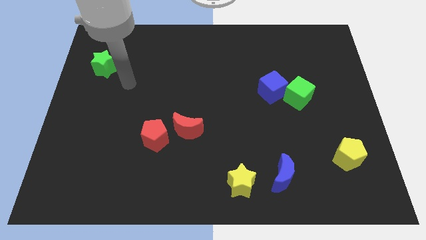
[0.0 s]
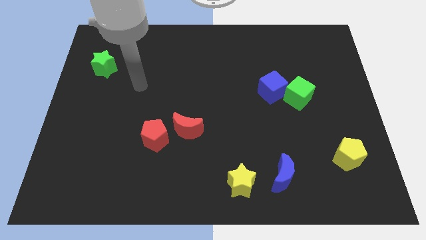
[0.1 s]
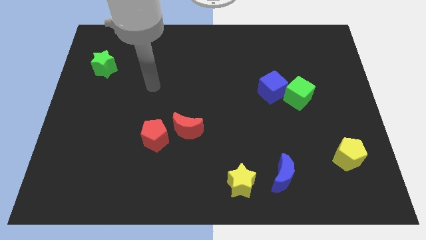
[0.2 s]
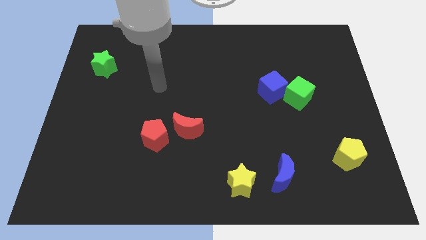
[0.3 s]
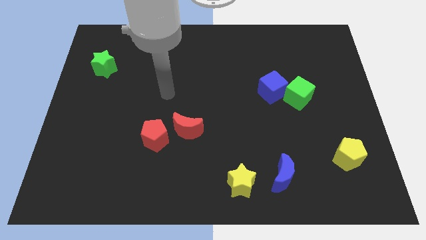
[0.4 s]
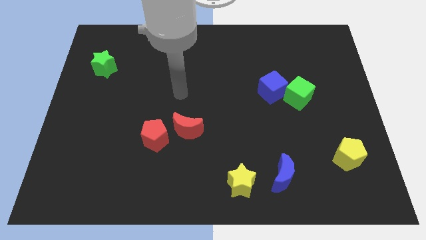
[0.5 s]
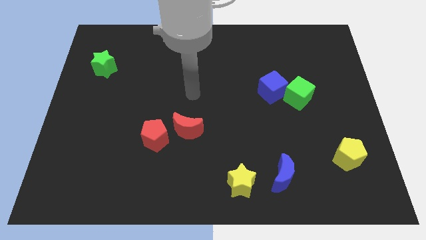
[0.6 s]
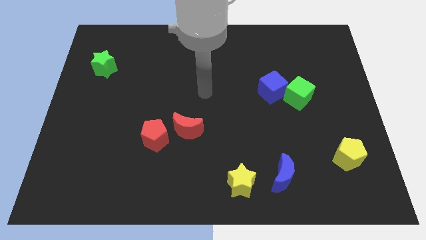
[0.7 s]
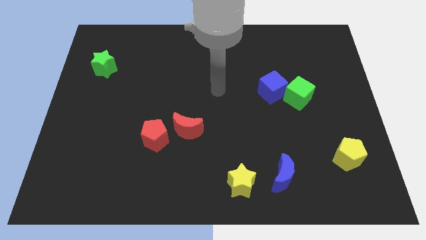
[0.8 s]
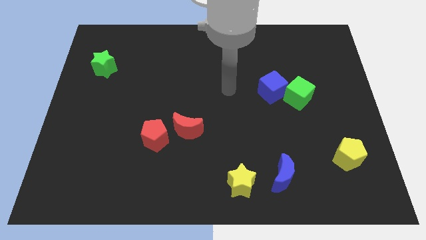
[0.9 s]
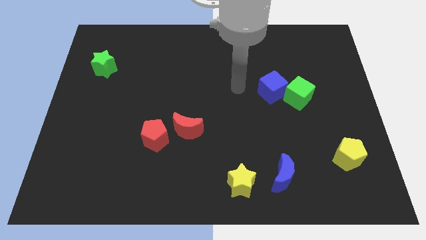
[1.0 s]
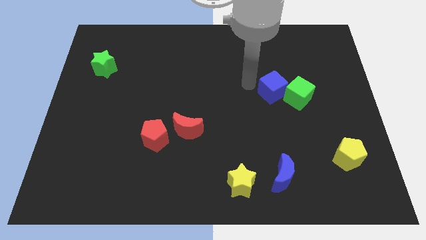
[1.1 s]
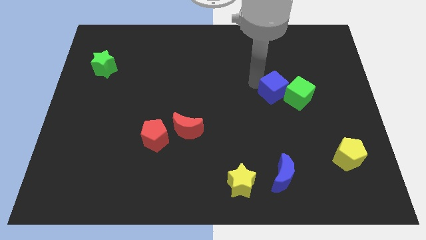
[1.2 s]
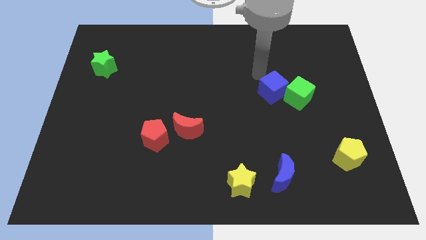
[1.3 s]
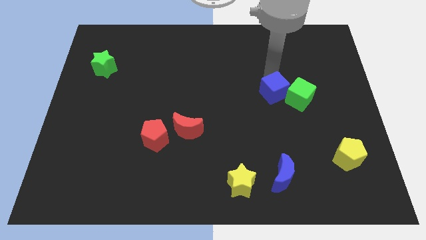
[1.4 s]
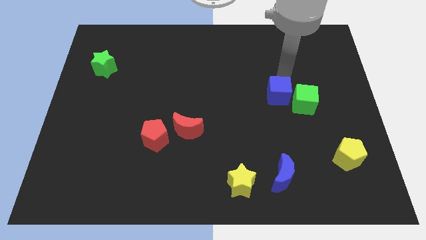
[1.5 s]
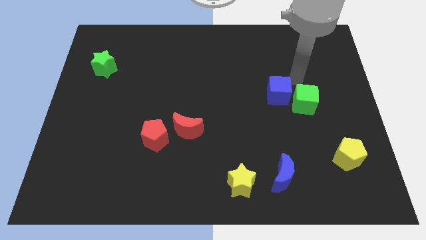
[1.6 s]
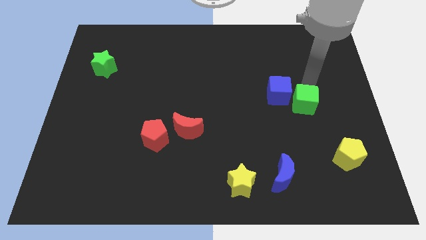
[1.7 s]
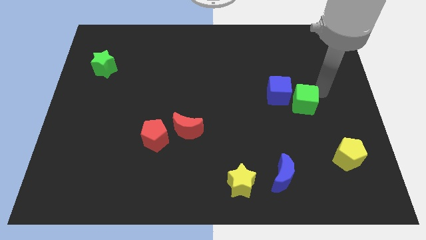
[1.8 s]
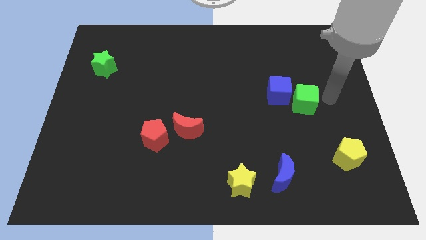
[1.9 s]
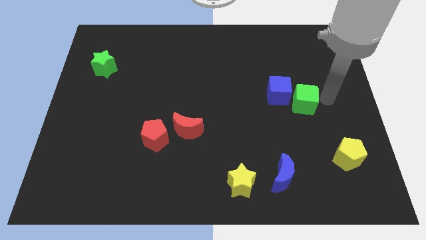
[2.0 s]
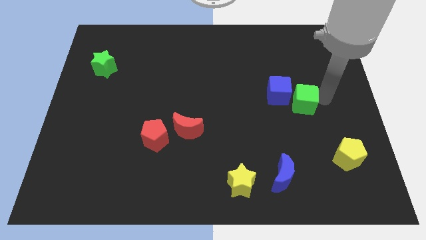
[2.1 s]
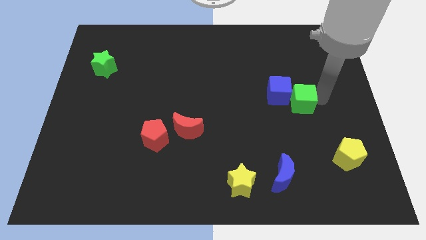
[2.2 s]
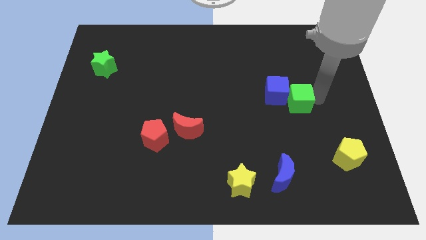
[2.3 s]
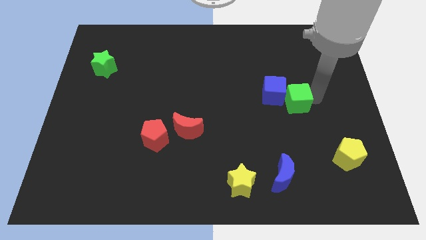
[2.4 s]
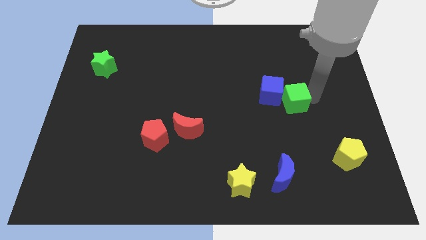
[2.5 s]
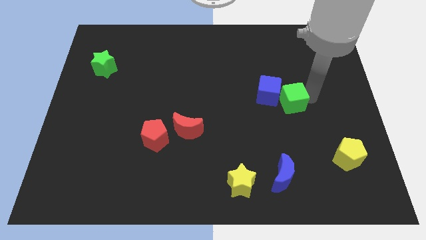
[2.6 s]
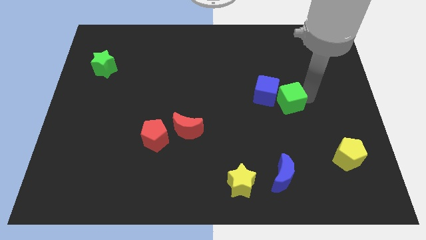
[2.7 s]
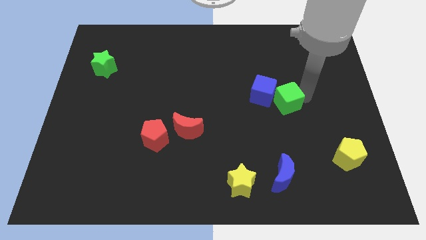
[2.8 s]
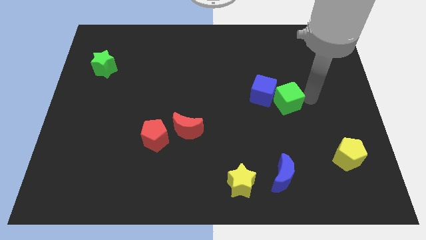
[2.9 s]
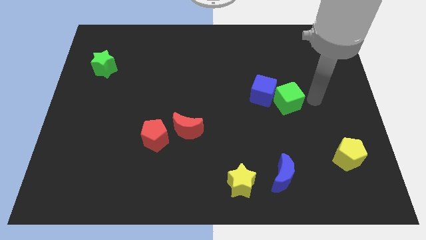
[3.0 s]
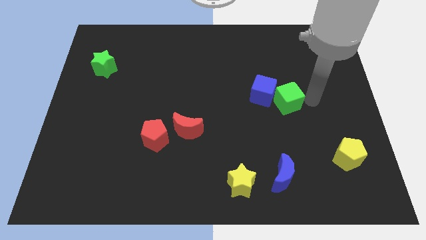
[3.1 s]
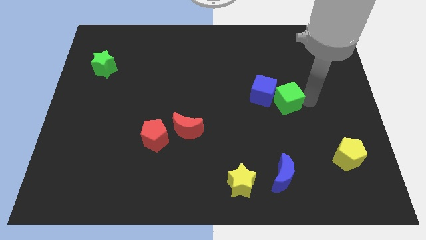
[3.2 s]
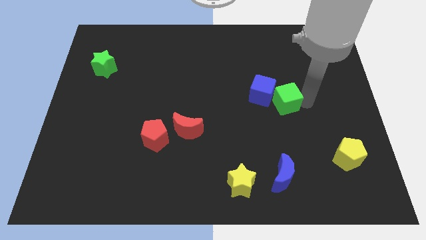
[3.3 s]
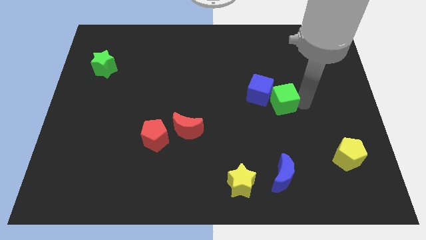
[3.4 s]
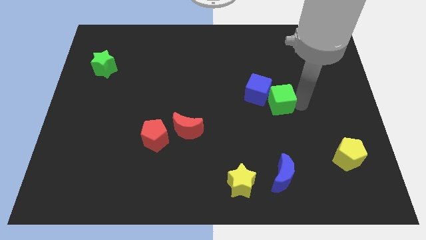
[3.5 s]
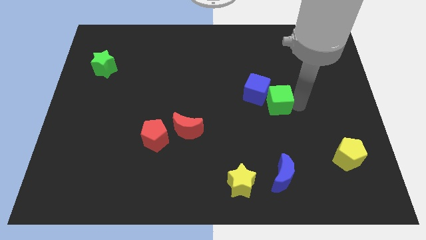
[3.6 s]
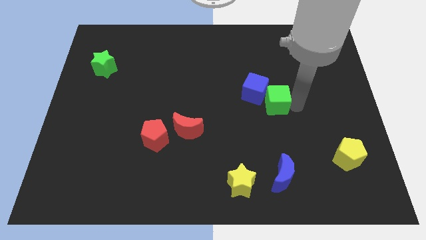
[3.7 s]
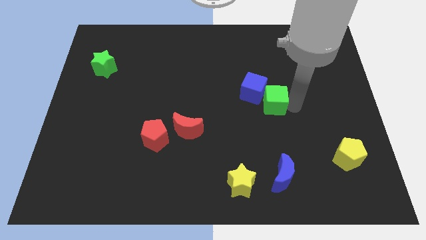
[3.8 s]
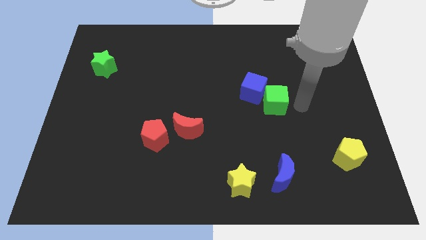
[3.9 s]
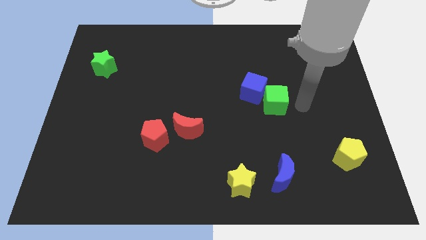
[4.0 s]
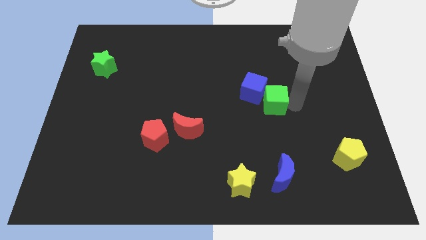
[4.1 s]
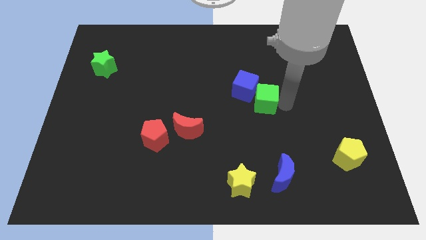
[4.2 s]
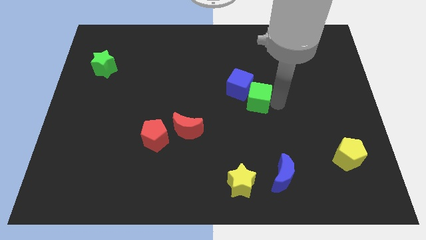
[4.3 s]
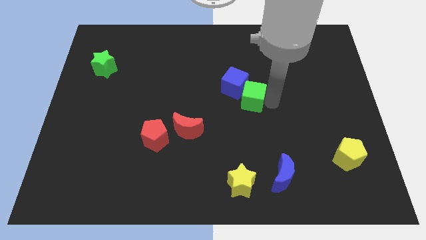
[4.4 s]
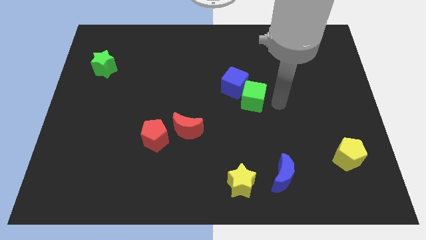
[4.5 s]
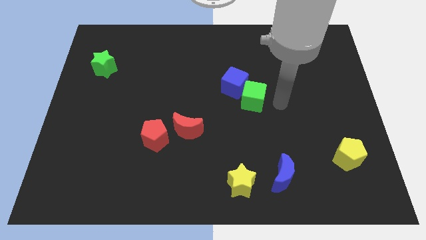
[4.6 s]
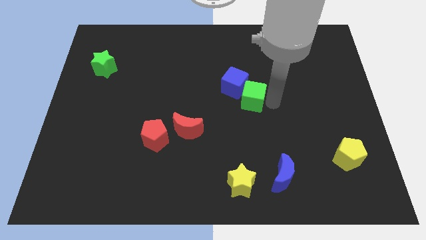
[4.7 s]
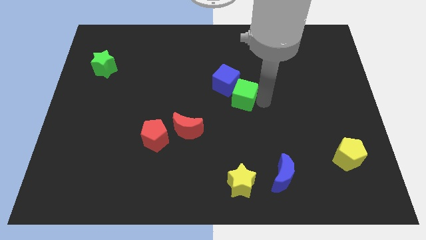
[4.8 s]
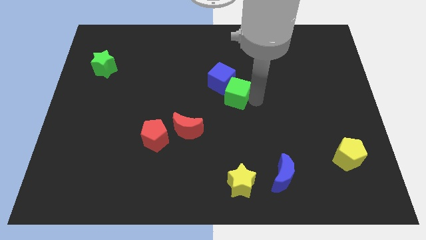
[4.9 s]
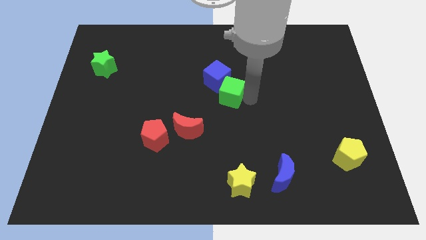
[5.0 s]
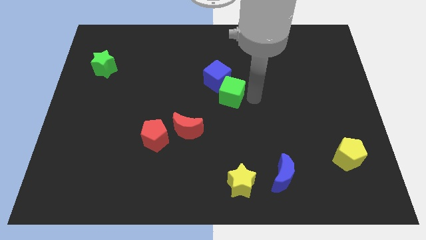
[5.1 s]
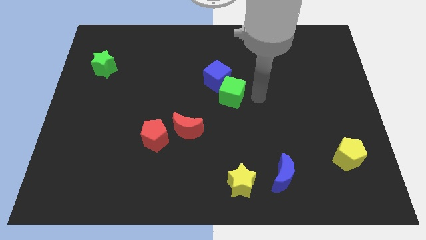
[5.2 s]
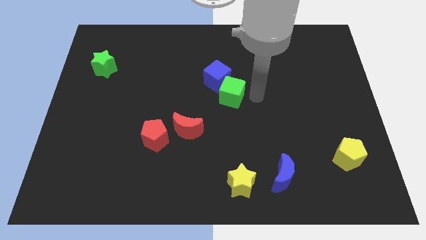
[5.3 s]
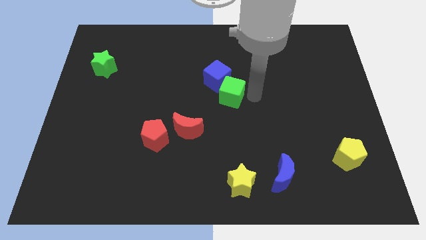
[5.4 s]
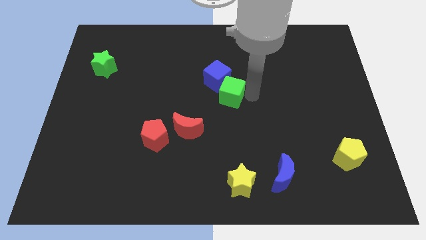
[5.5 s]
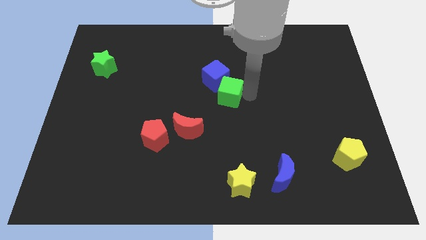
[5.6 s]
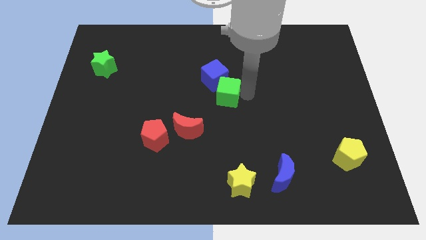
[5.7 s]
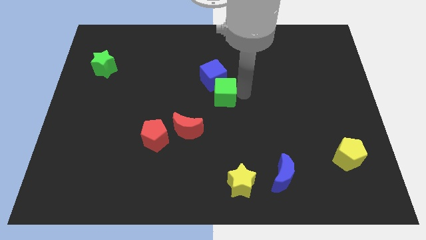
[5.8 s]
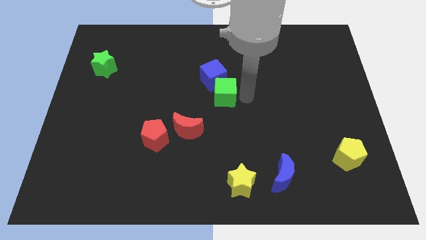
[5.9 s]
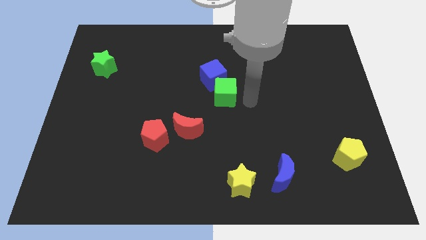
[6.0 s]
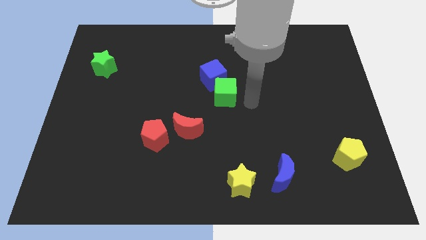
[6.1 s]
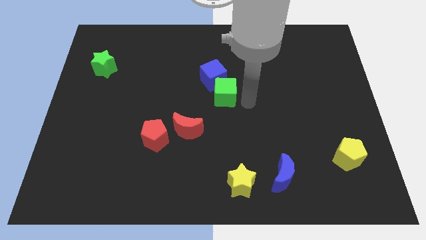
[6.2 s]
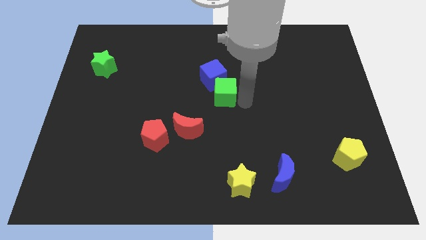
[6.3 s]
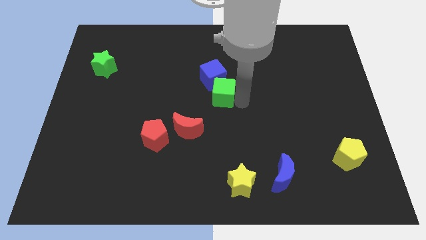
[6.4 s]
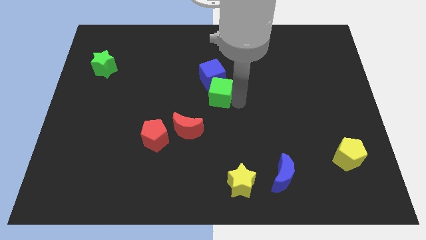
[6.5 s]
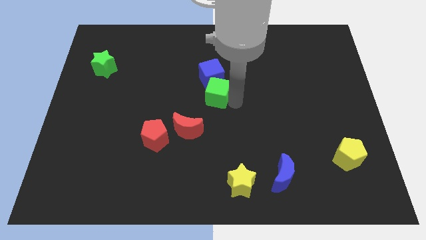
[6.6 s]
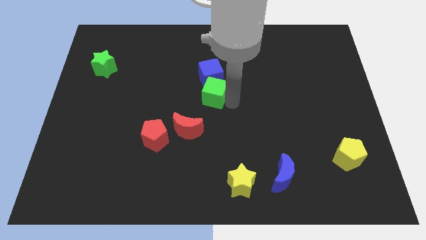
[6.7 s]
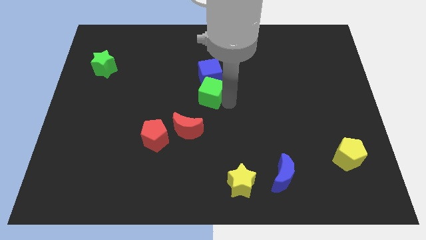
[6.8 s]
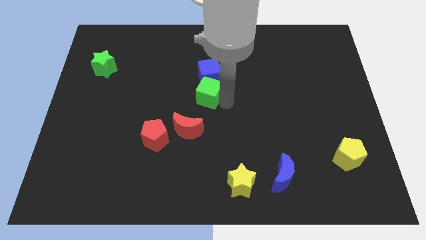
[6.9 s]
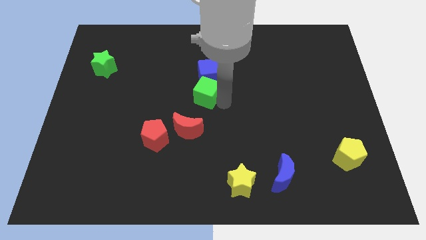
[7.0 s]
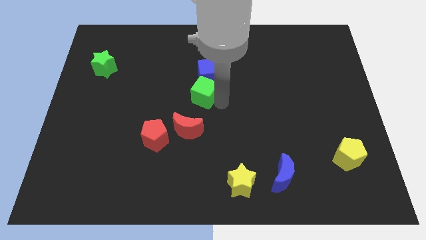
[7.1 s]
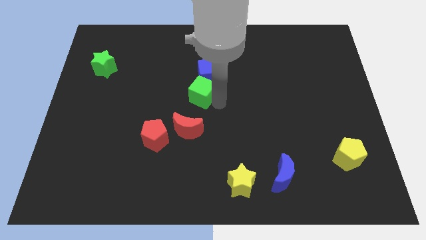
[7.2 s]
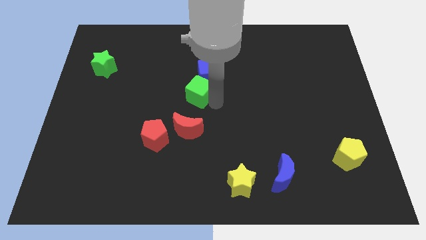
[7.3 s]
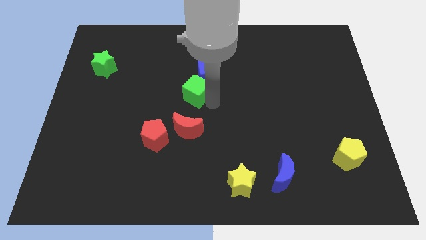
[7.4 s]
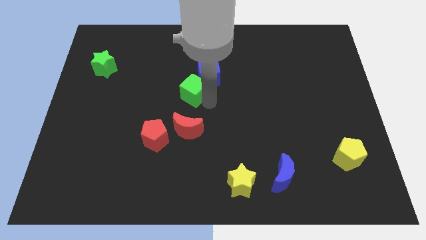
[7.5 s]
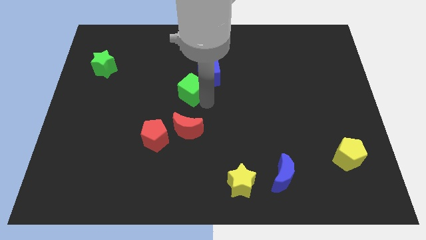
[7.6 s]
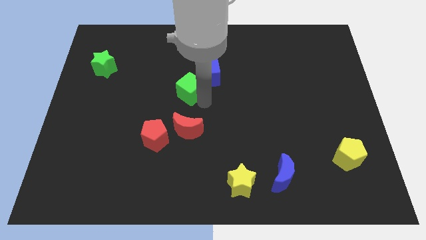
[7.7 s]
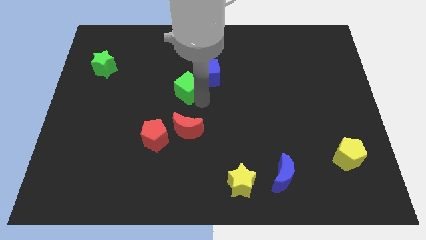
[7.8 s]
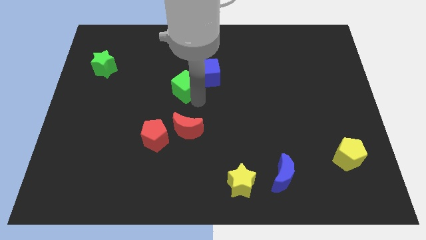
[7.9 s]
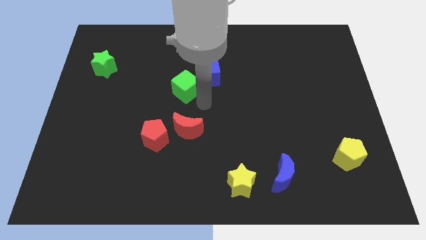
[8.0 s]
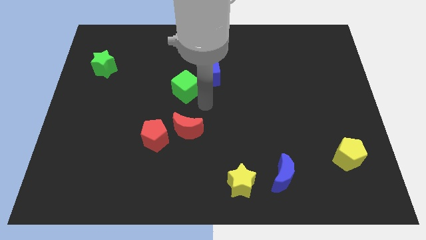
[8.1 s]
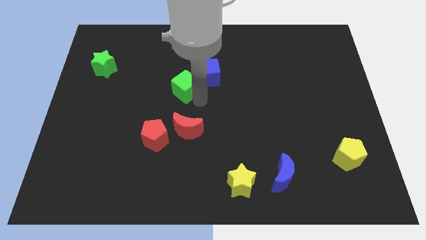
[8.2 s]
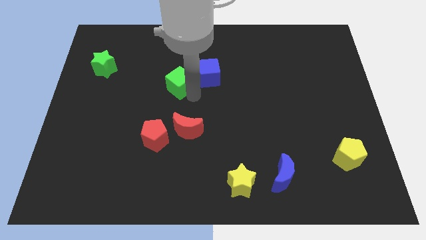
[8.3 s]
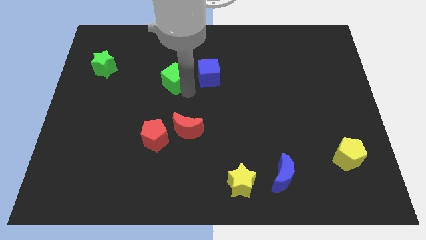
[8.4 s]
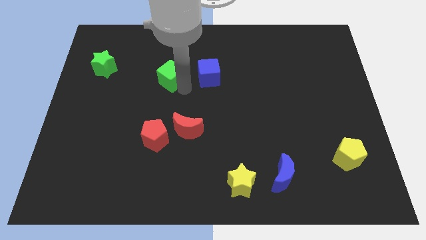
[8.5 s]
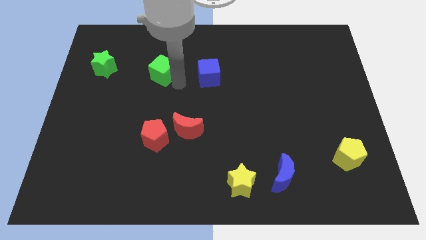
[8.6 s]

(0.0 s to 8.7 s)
push the green cube right of the green star
